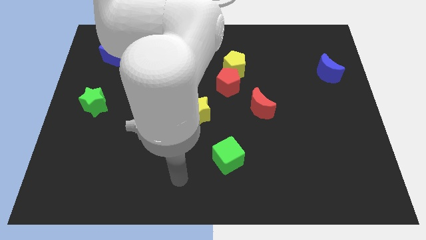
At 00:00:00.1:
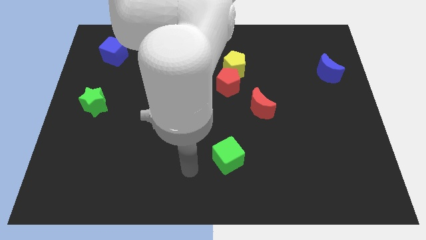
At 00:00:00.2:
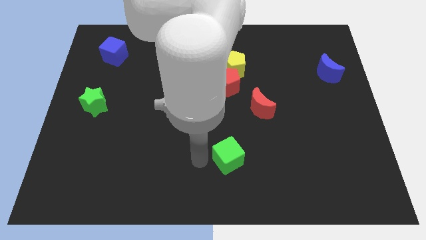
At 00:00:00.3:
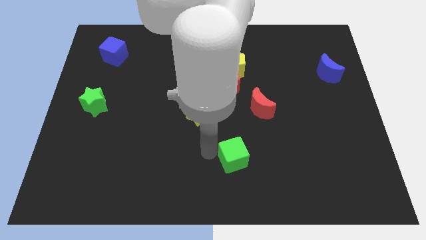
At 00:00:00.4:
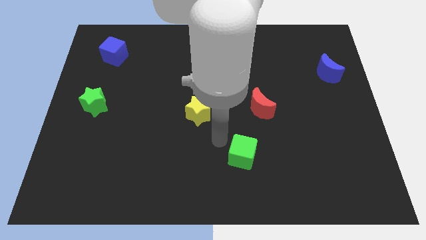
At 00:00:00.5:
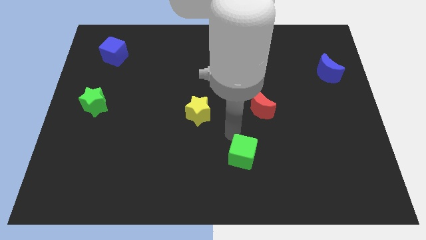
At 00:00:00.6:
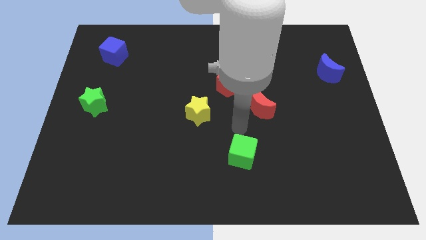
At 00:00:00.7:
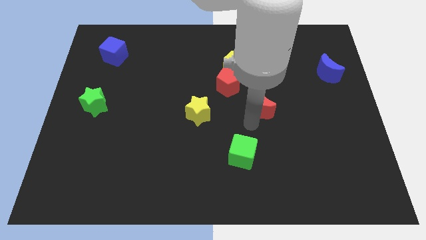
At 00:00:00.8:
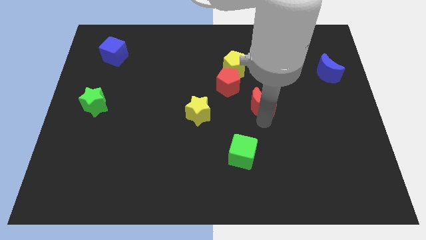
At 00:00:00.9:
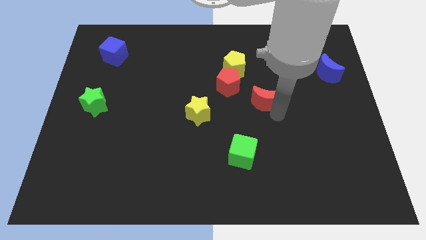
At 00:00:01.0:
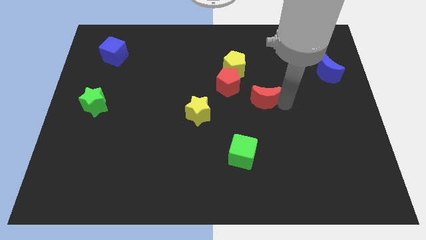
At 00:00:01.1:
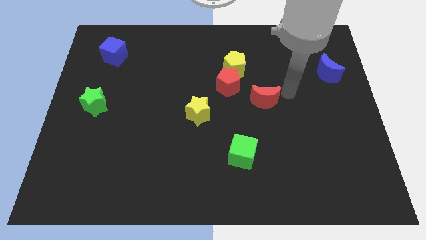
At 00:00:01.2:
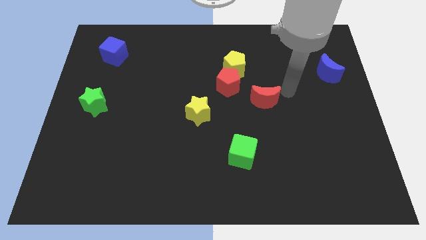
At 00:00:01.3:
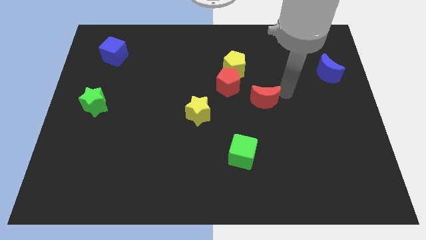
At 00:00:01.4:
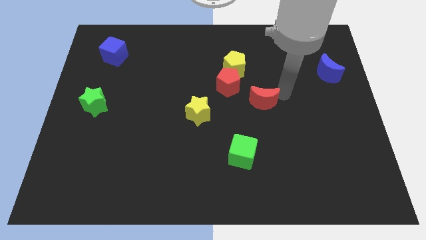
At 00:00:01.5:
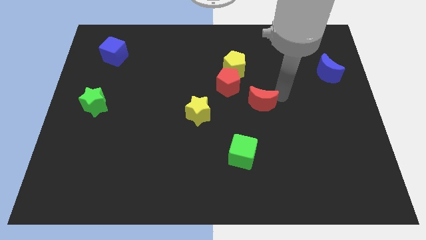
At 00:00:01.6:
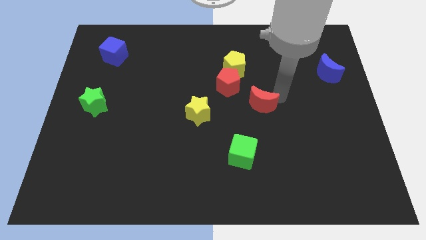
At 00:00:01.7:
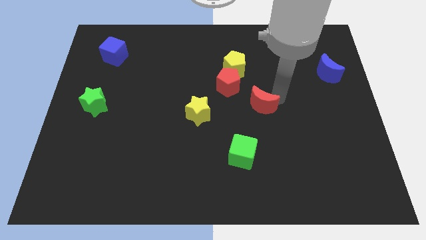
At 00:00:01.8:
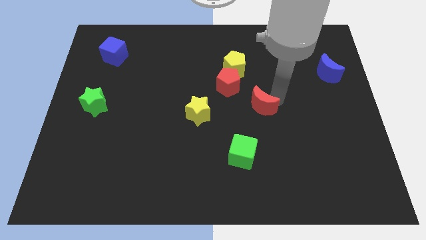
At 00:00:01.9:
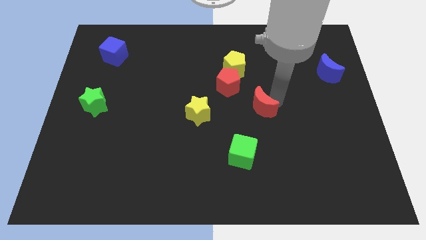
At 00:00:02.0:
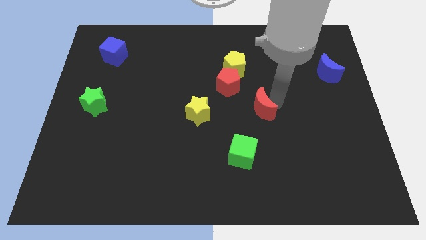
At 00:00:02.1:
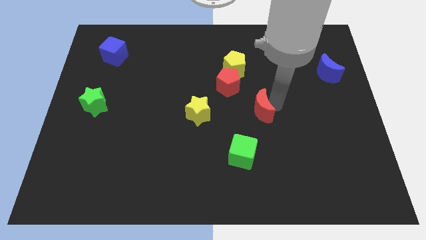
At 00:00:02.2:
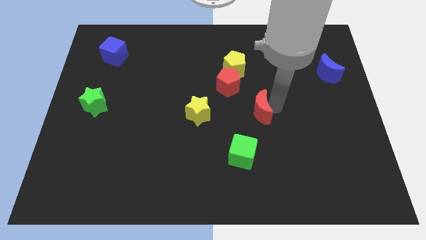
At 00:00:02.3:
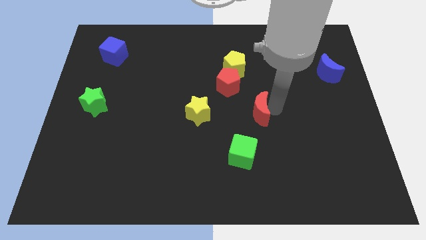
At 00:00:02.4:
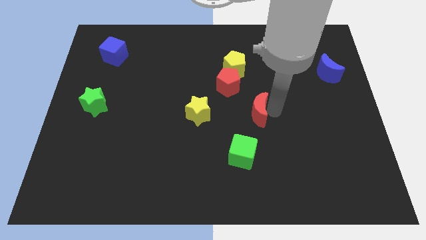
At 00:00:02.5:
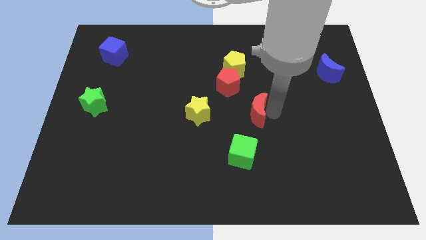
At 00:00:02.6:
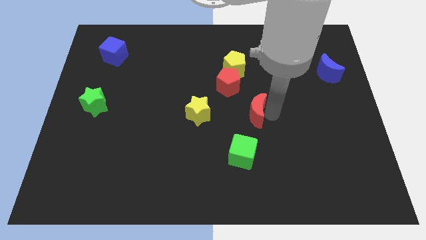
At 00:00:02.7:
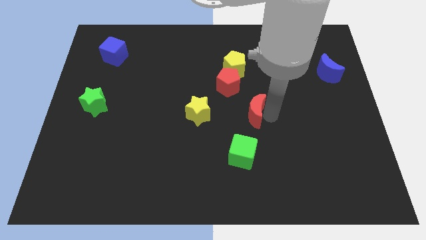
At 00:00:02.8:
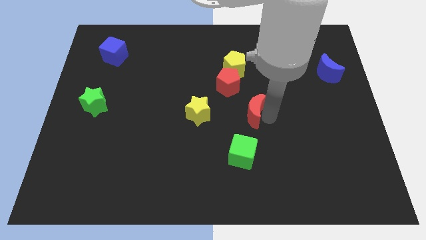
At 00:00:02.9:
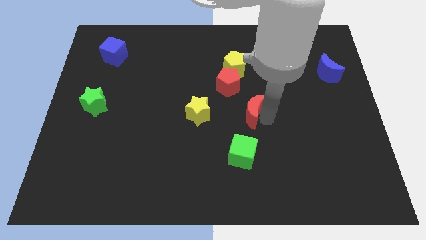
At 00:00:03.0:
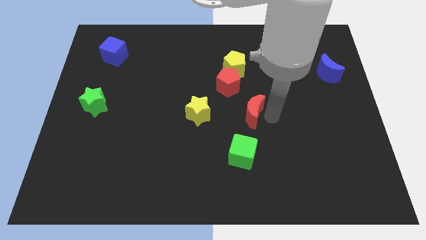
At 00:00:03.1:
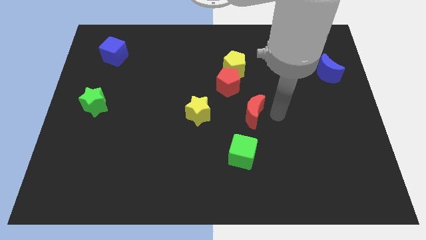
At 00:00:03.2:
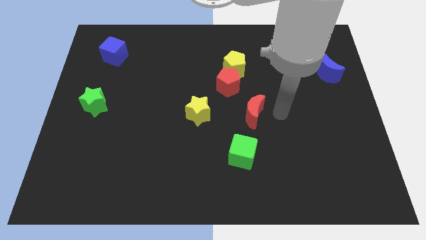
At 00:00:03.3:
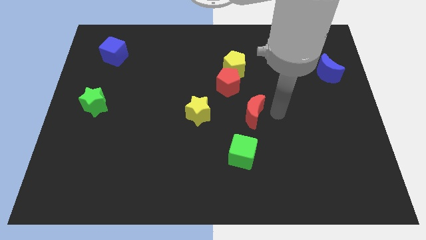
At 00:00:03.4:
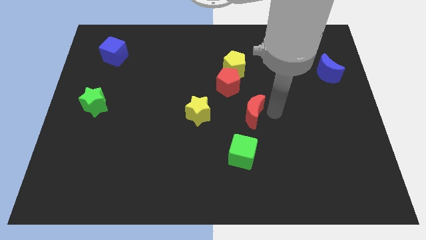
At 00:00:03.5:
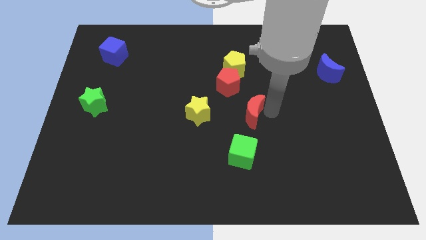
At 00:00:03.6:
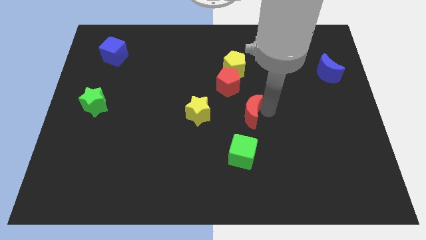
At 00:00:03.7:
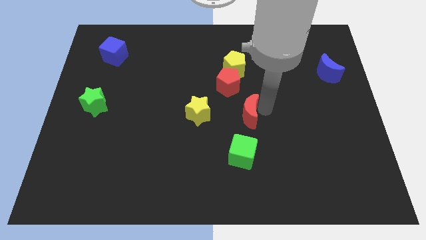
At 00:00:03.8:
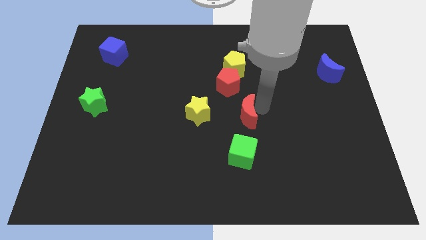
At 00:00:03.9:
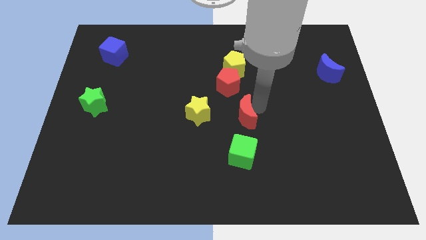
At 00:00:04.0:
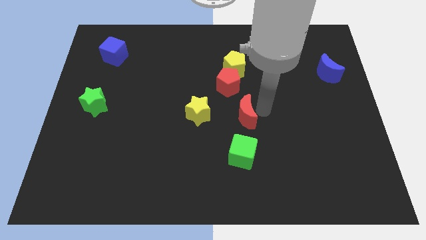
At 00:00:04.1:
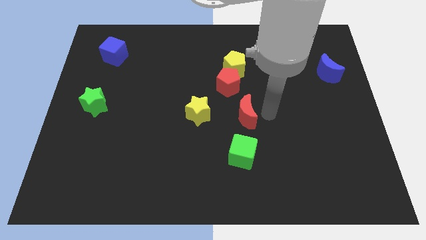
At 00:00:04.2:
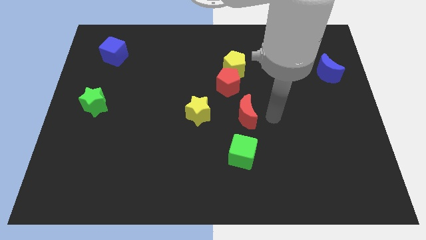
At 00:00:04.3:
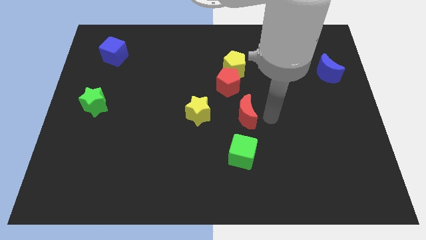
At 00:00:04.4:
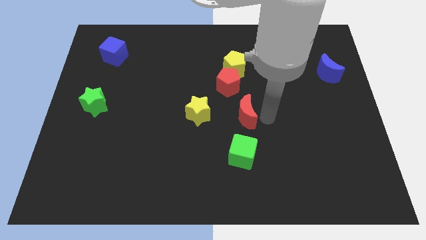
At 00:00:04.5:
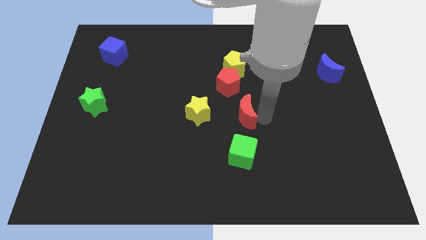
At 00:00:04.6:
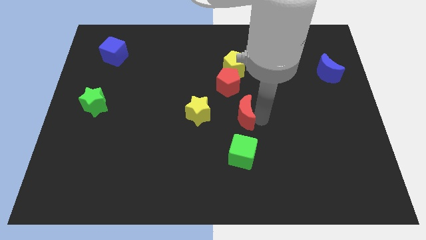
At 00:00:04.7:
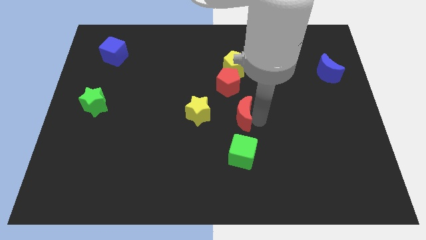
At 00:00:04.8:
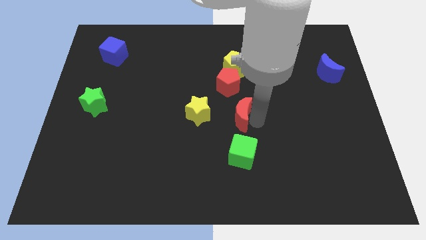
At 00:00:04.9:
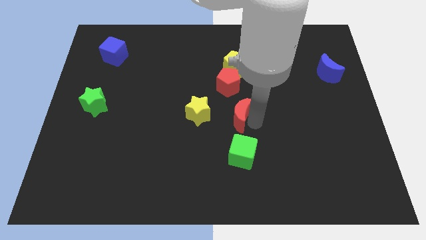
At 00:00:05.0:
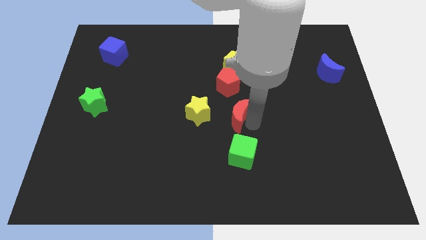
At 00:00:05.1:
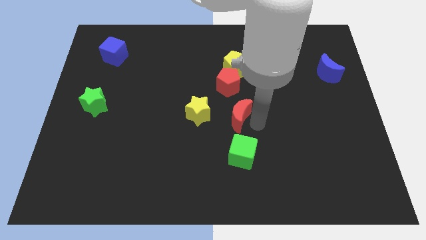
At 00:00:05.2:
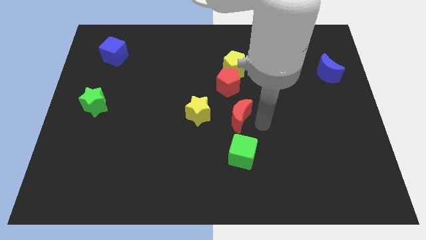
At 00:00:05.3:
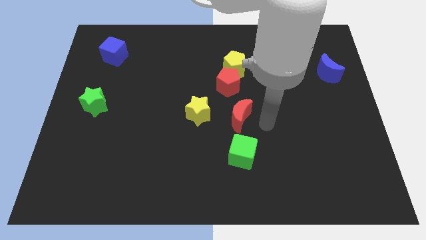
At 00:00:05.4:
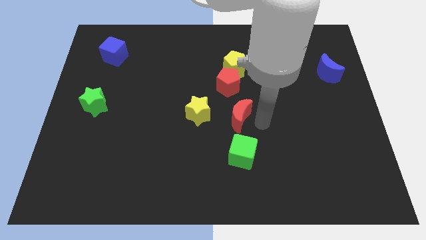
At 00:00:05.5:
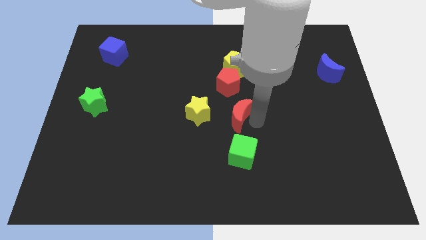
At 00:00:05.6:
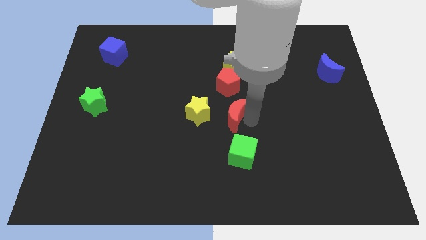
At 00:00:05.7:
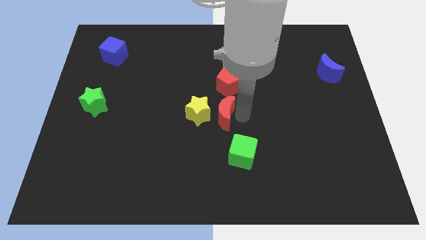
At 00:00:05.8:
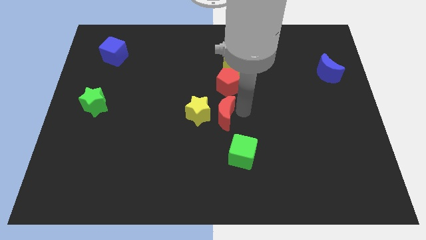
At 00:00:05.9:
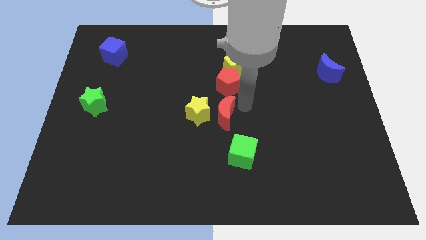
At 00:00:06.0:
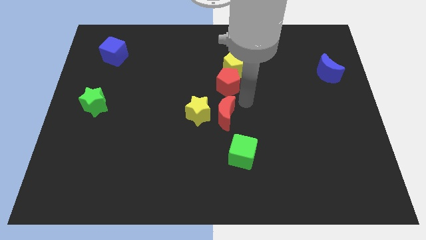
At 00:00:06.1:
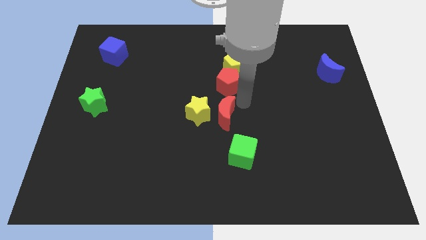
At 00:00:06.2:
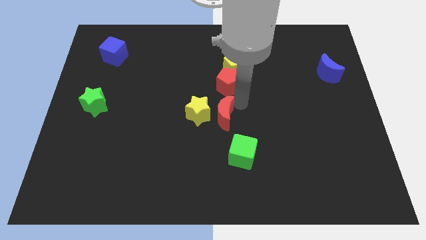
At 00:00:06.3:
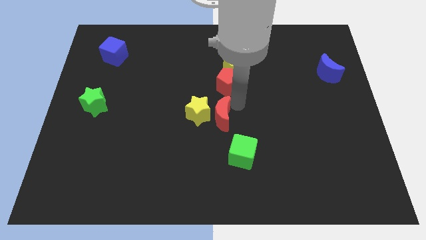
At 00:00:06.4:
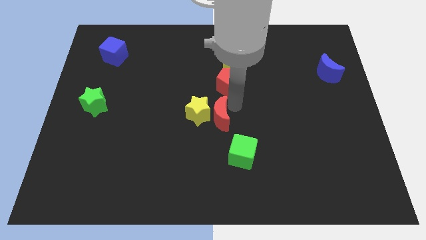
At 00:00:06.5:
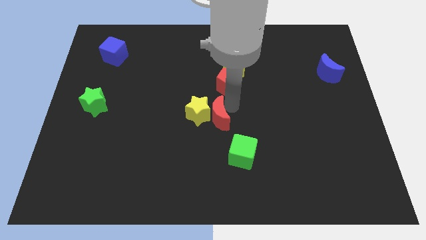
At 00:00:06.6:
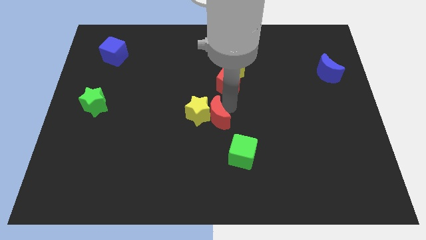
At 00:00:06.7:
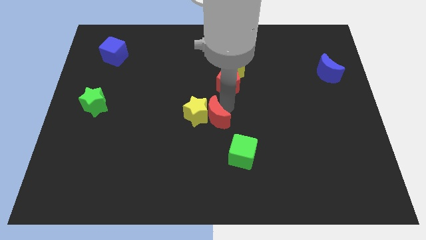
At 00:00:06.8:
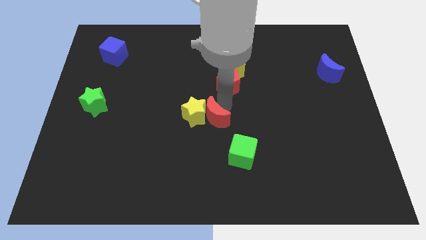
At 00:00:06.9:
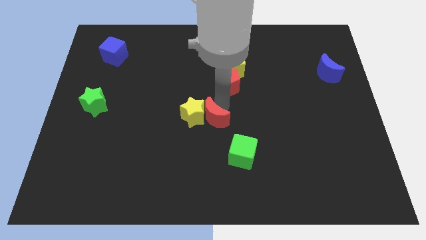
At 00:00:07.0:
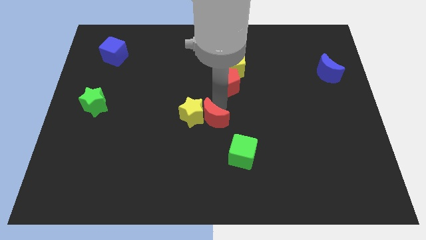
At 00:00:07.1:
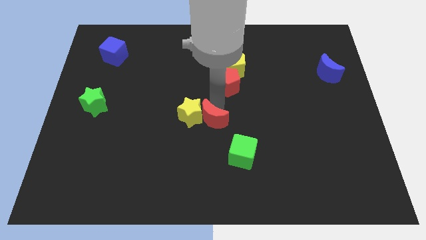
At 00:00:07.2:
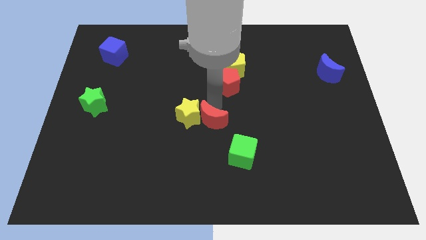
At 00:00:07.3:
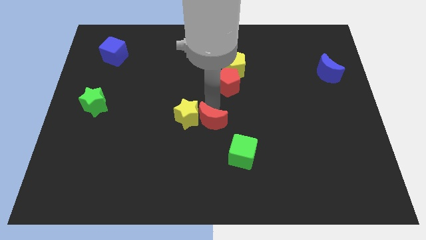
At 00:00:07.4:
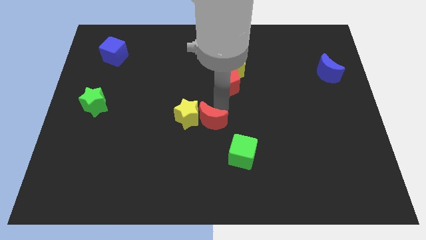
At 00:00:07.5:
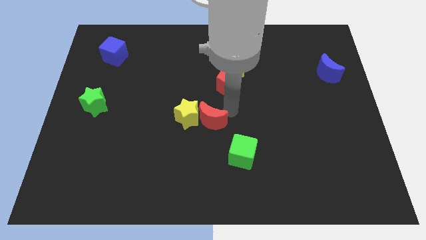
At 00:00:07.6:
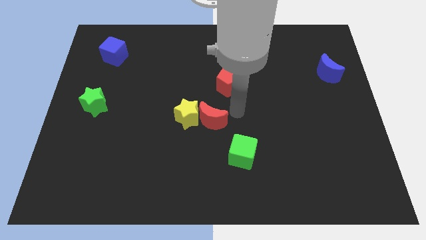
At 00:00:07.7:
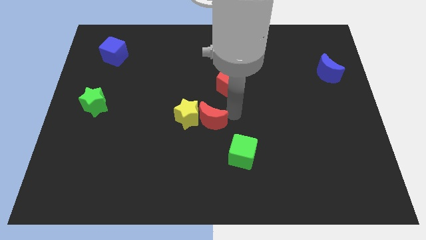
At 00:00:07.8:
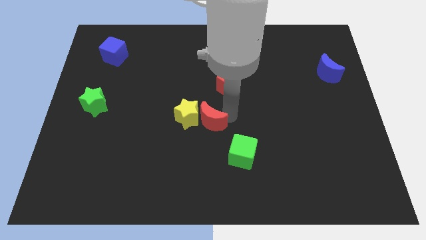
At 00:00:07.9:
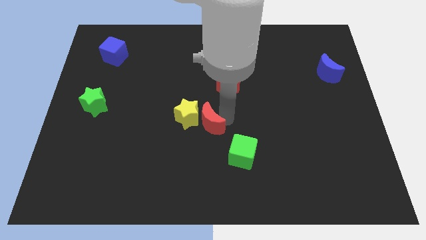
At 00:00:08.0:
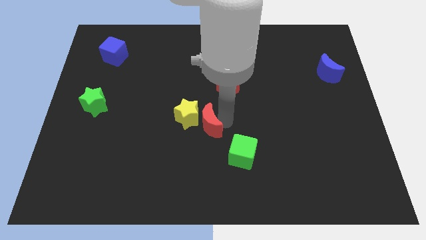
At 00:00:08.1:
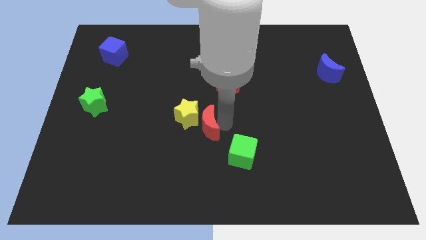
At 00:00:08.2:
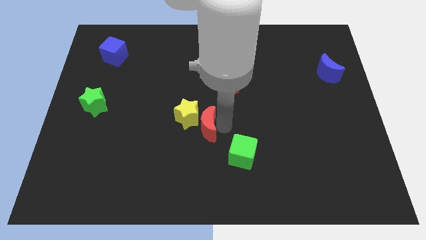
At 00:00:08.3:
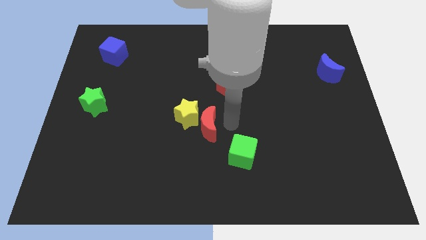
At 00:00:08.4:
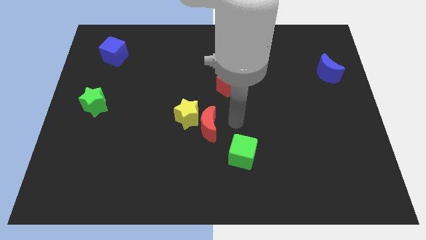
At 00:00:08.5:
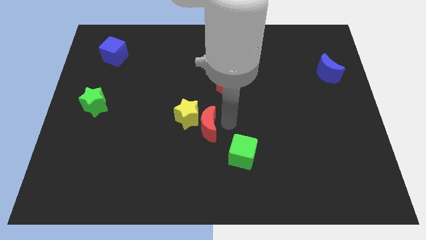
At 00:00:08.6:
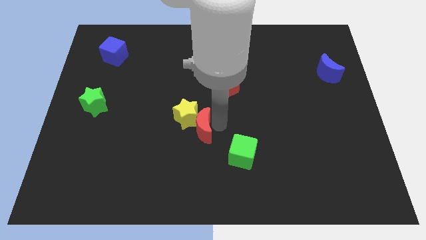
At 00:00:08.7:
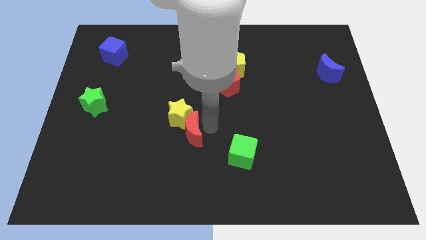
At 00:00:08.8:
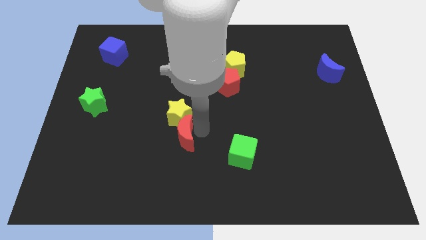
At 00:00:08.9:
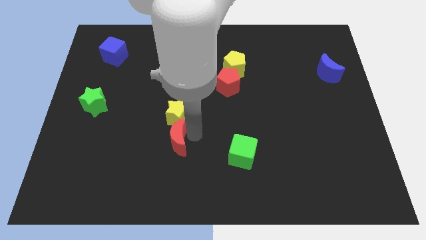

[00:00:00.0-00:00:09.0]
put the red moon to the bottom left of the yellow star
